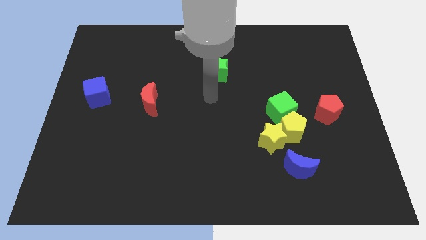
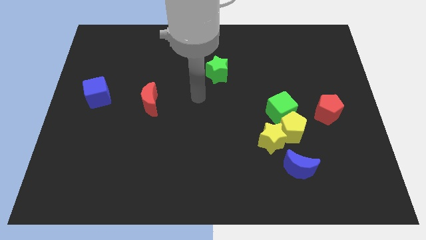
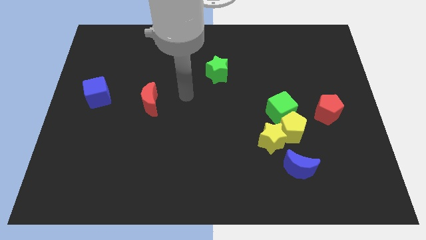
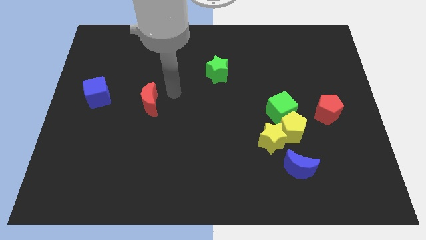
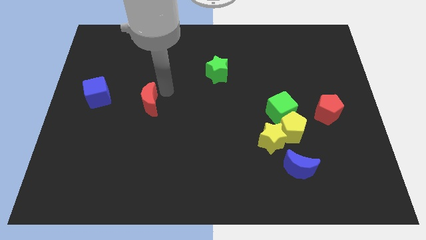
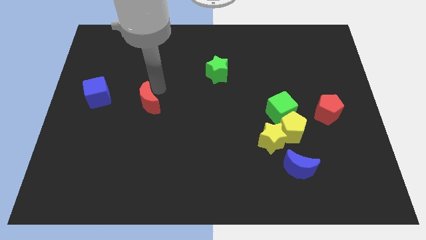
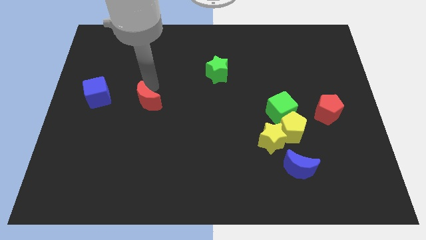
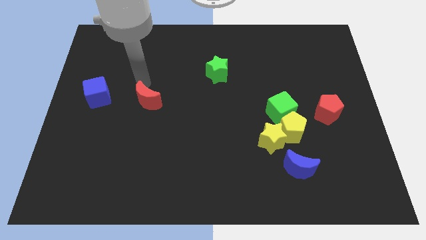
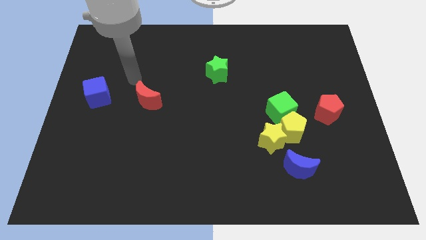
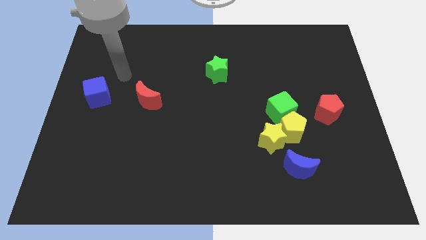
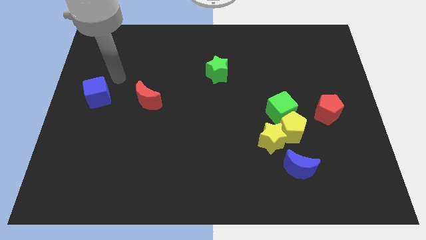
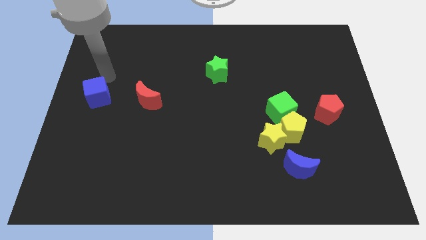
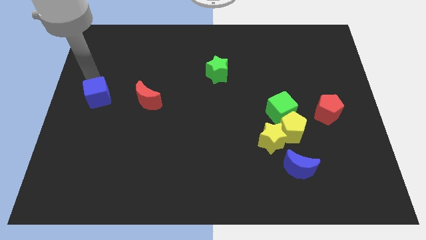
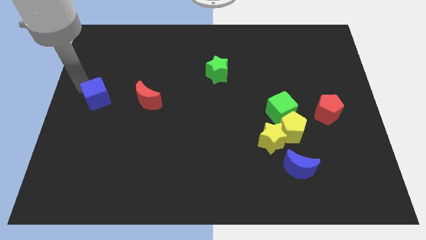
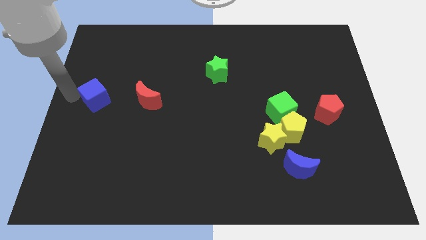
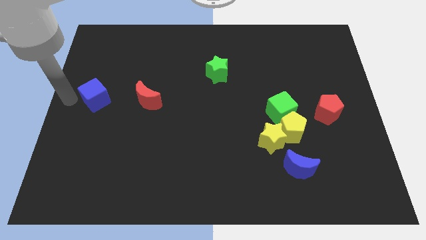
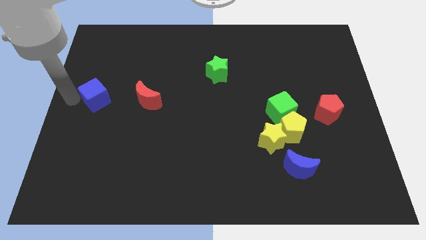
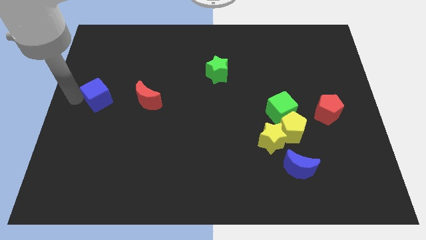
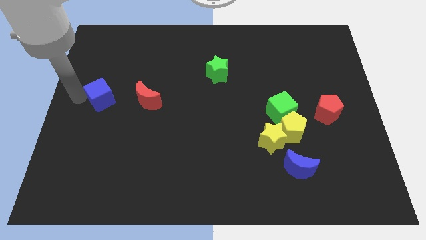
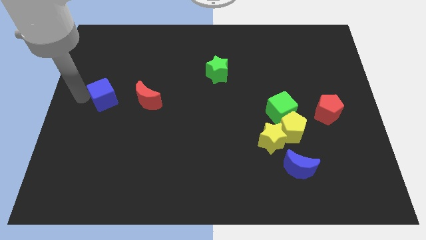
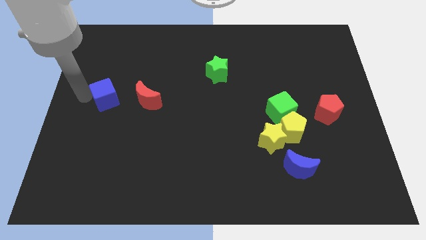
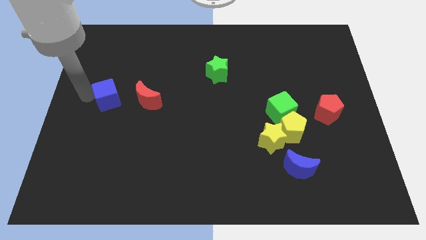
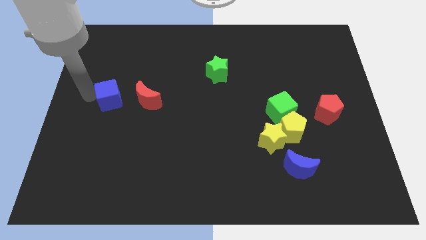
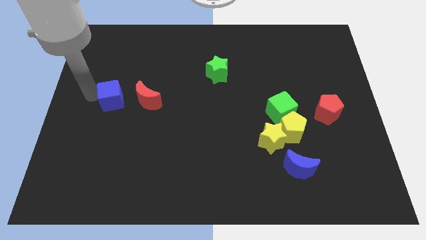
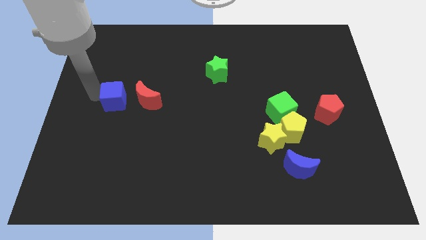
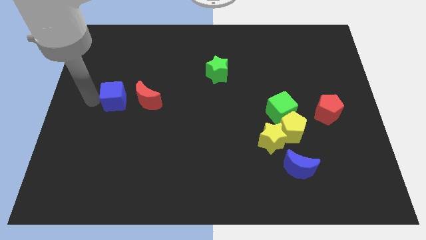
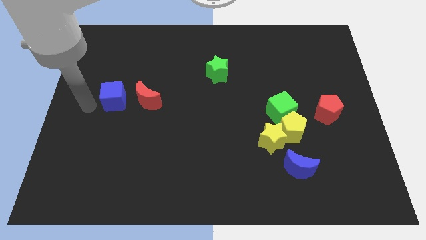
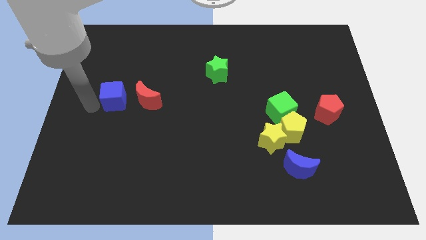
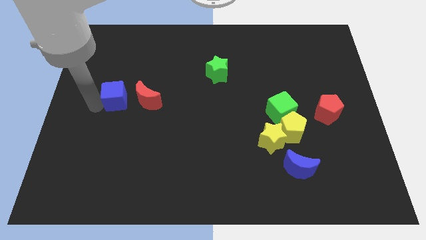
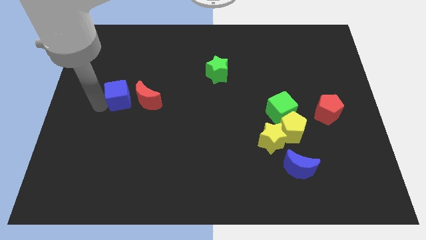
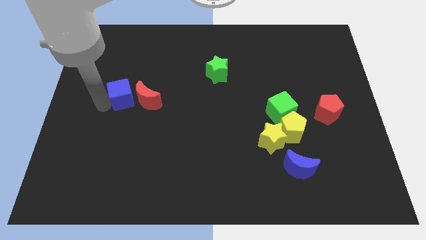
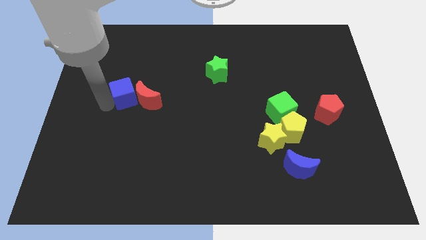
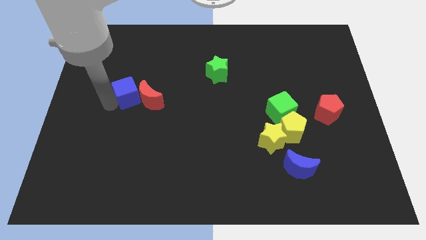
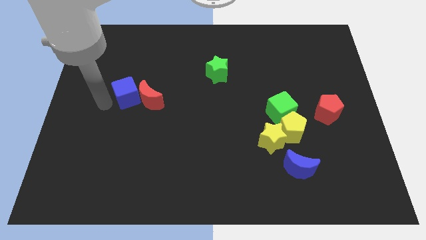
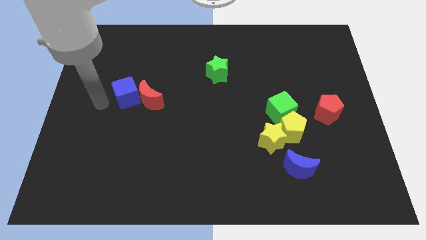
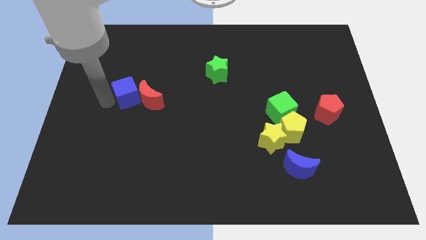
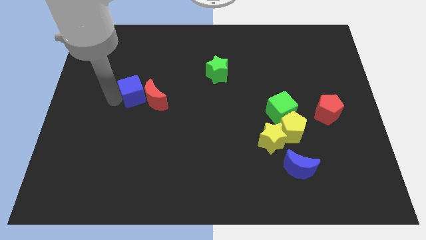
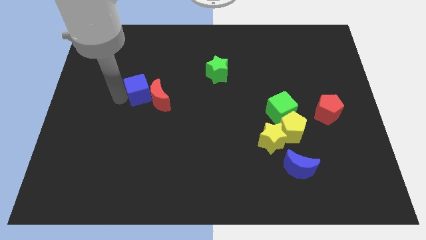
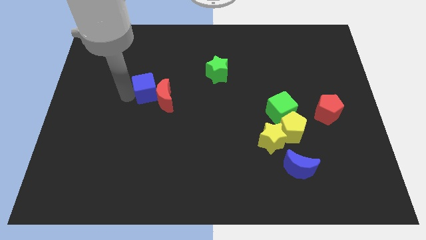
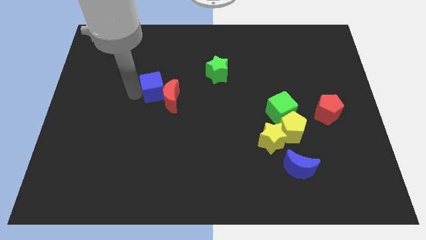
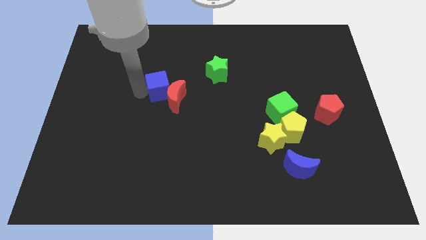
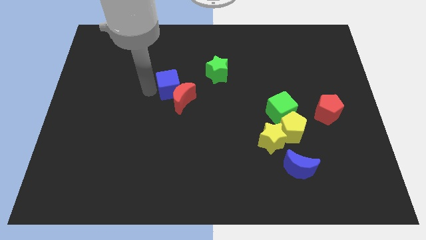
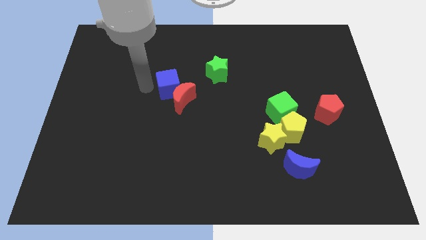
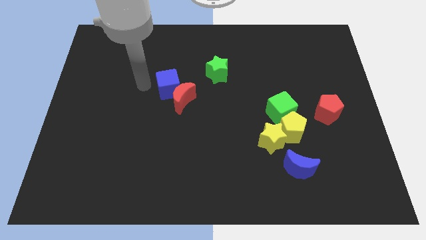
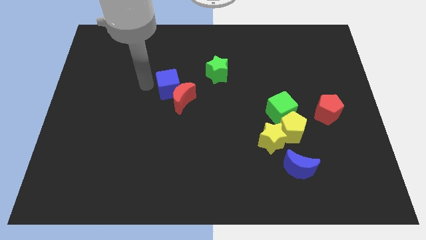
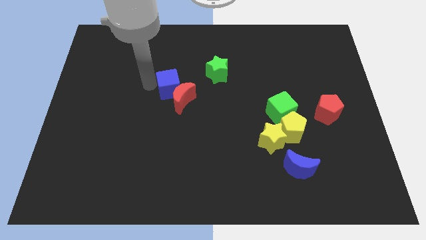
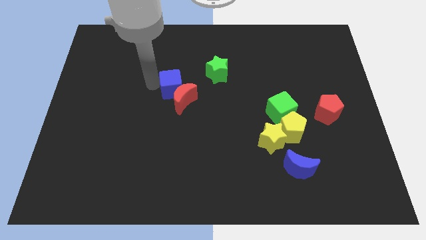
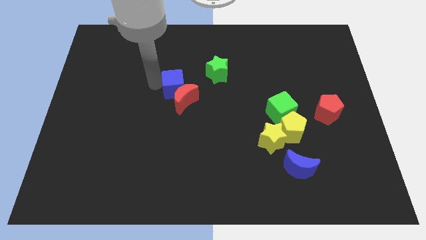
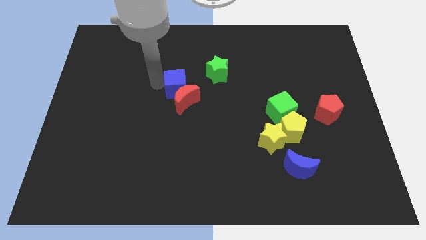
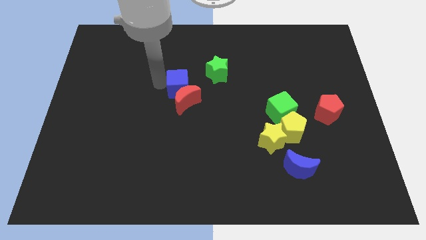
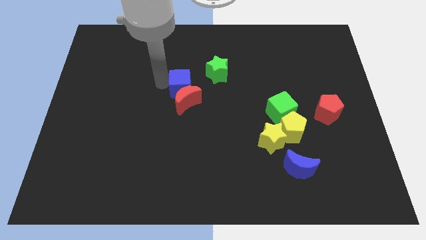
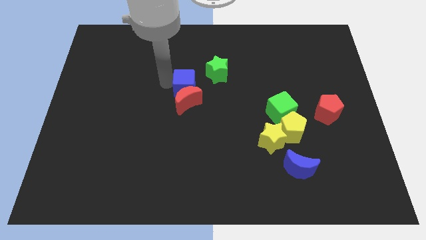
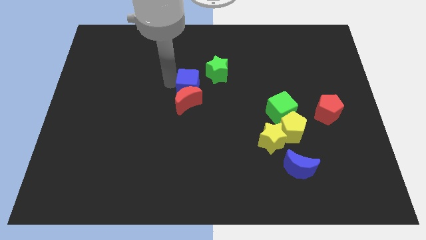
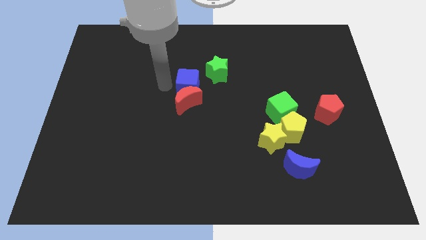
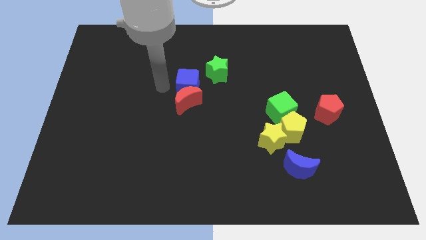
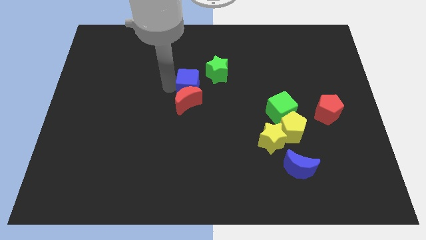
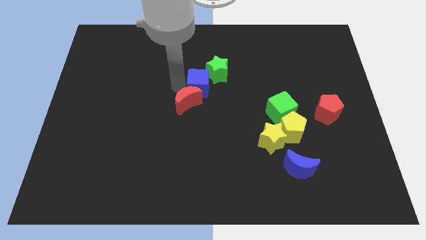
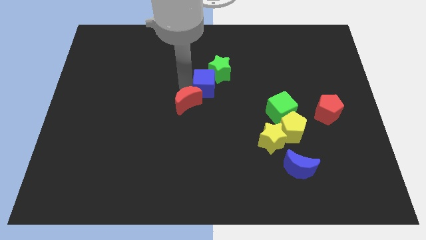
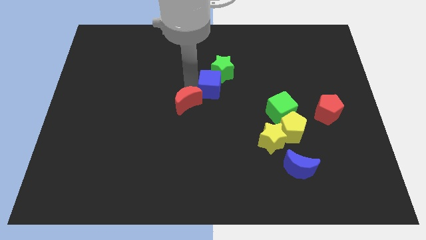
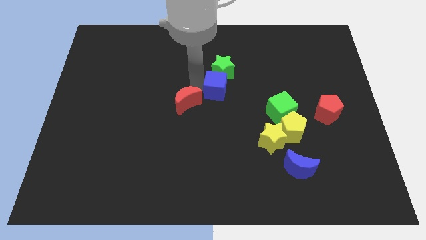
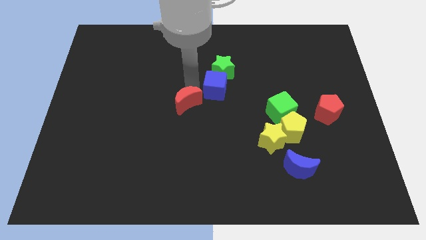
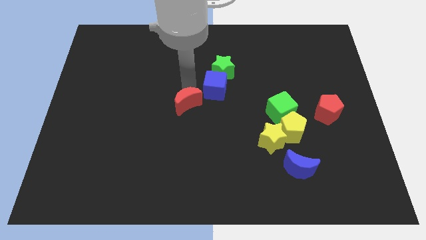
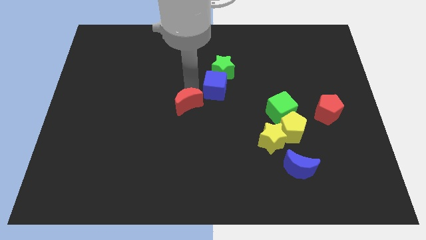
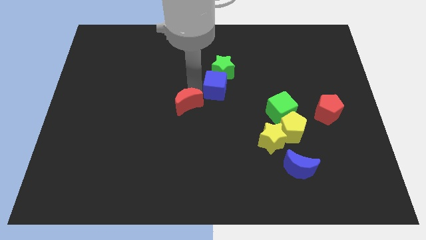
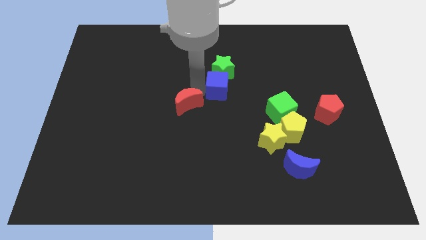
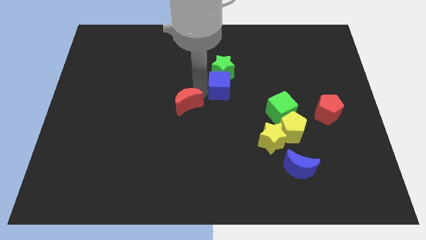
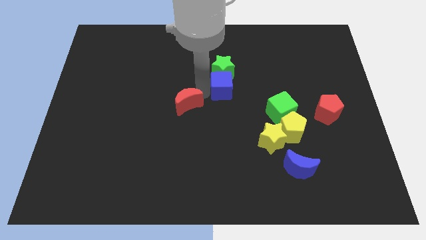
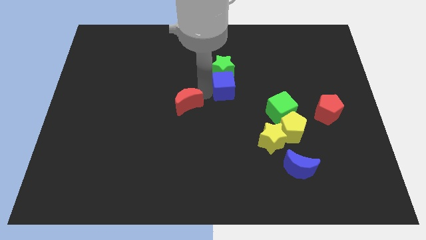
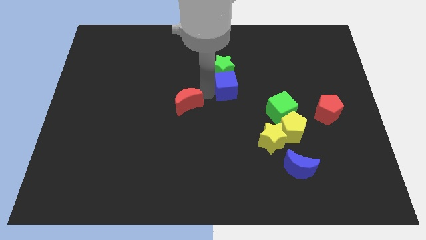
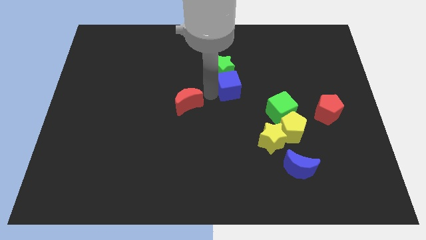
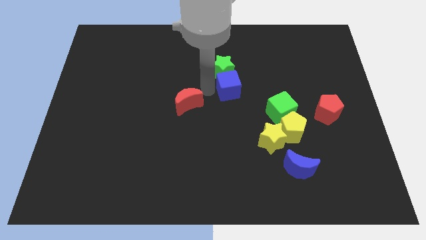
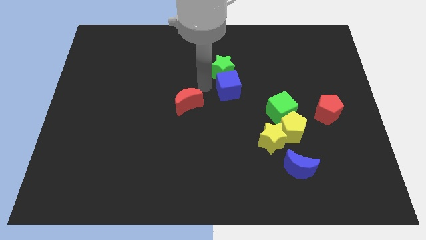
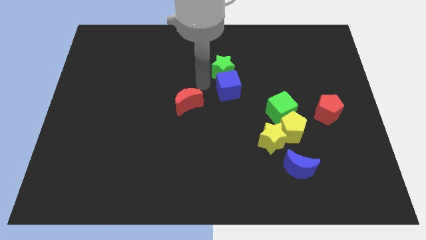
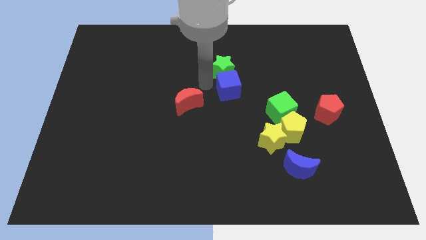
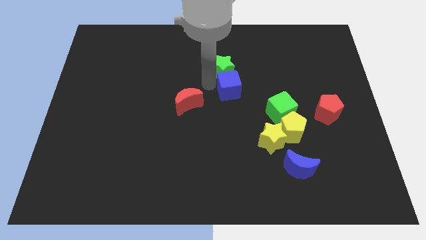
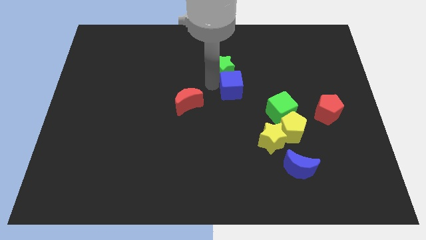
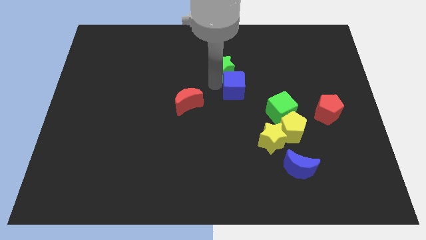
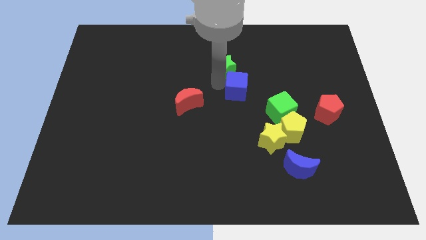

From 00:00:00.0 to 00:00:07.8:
move the blue cube to the top left of the green cube
